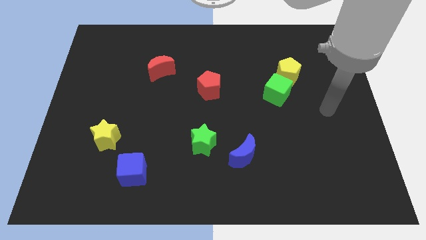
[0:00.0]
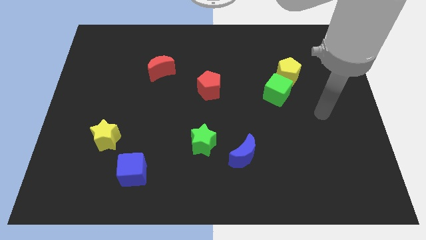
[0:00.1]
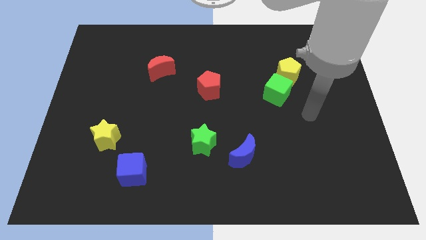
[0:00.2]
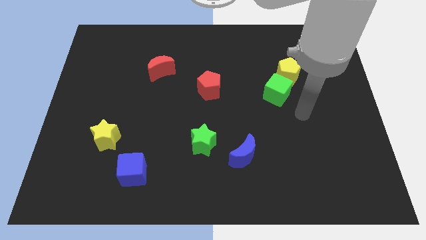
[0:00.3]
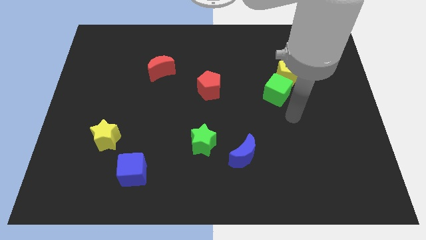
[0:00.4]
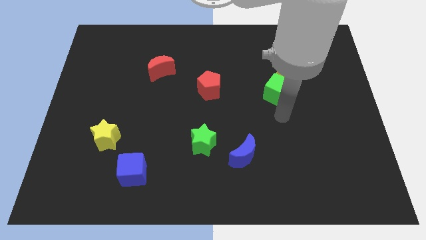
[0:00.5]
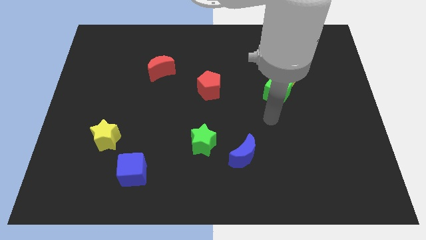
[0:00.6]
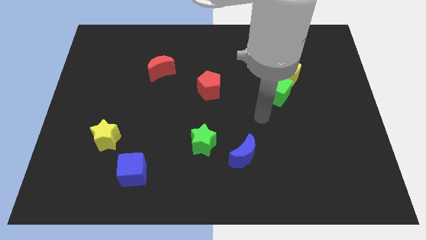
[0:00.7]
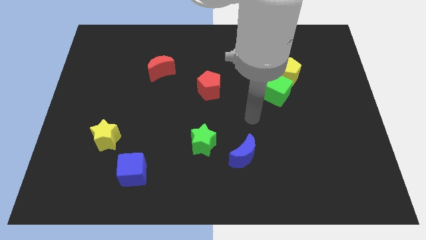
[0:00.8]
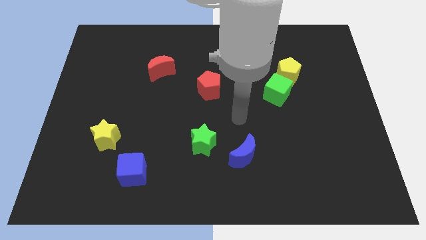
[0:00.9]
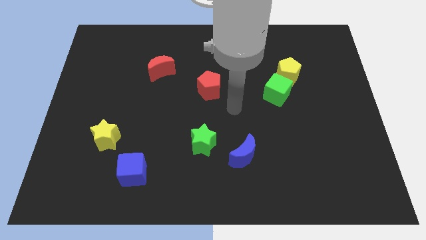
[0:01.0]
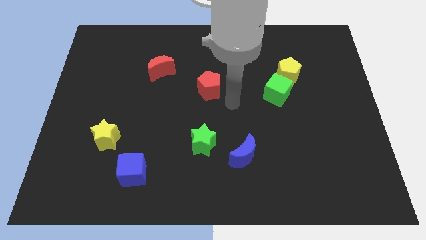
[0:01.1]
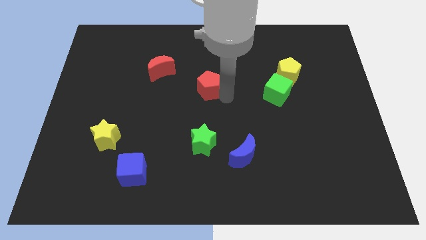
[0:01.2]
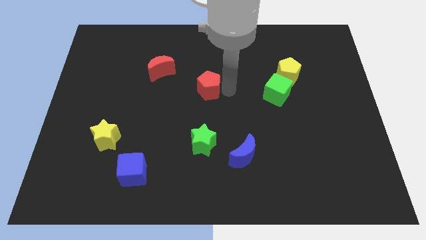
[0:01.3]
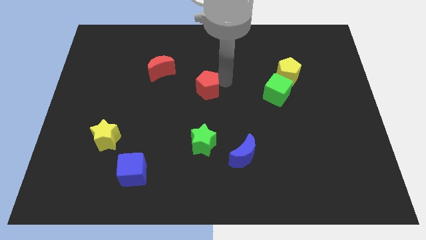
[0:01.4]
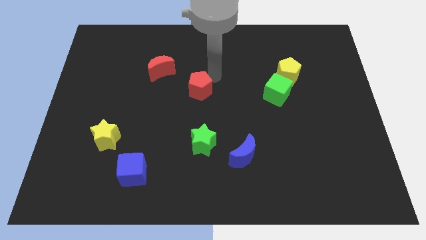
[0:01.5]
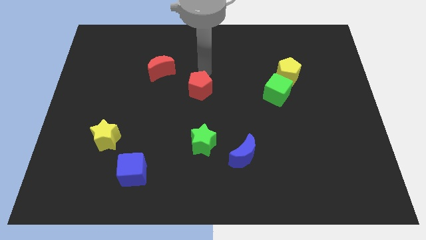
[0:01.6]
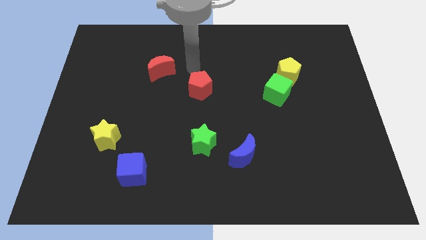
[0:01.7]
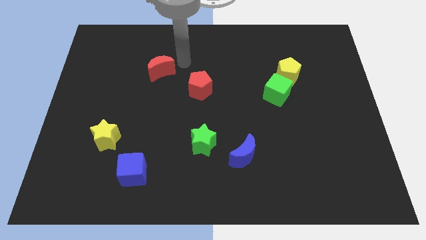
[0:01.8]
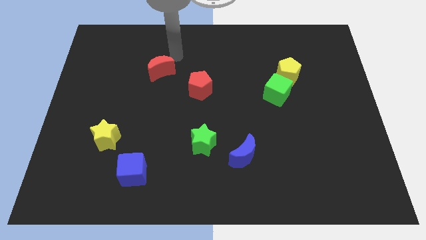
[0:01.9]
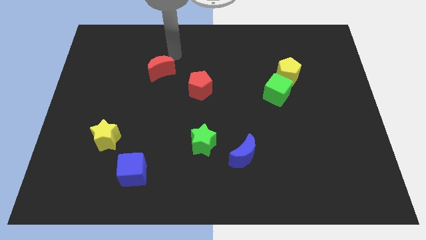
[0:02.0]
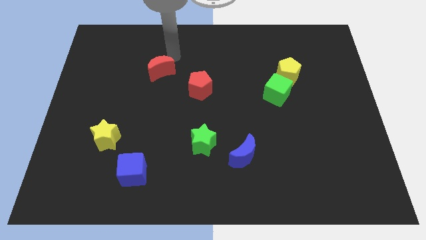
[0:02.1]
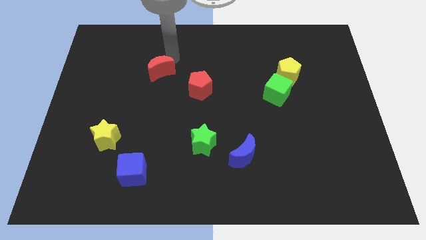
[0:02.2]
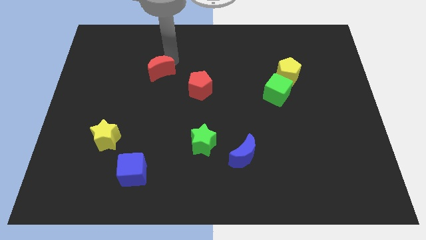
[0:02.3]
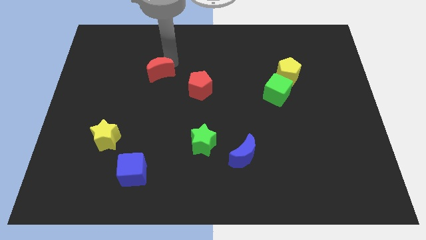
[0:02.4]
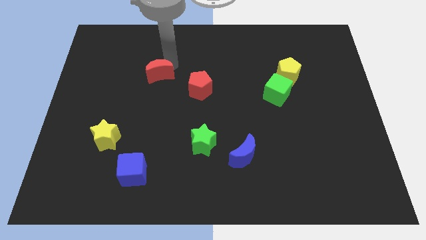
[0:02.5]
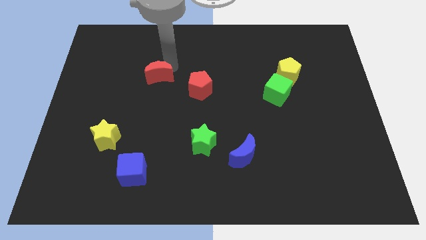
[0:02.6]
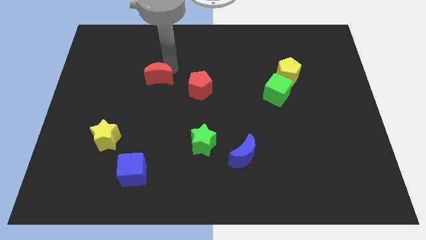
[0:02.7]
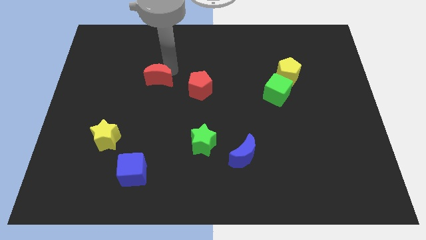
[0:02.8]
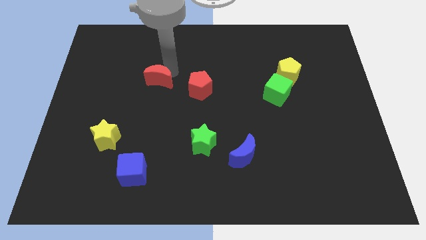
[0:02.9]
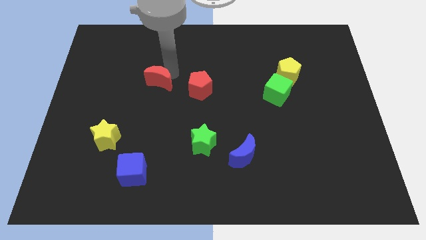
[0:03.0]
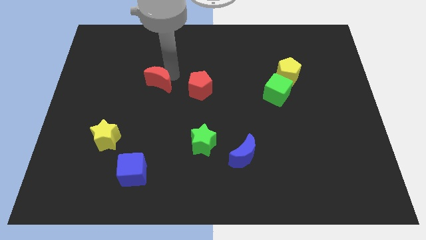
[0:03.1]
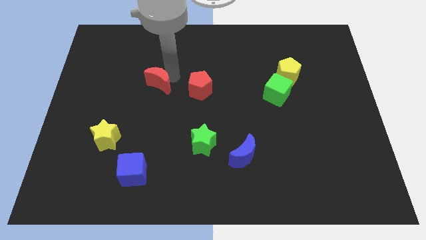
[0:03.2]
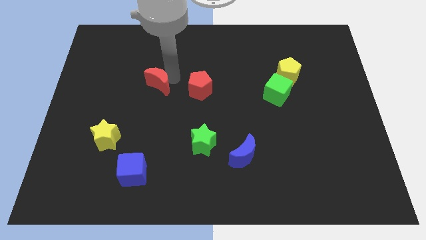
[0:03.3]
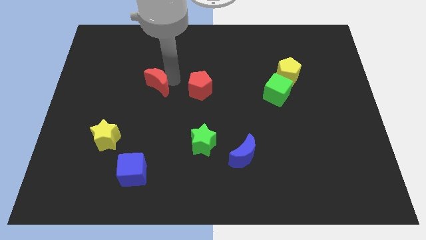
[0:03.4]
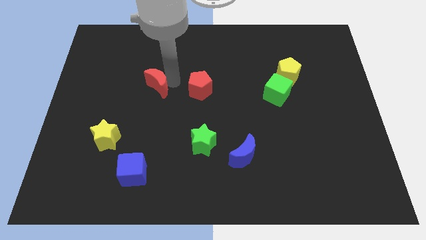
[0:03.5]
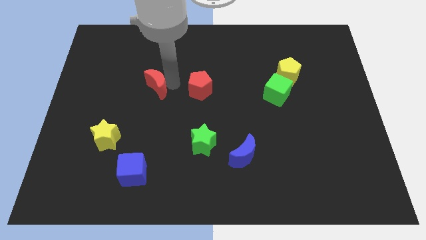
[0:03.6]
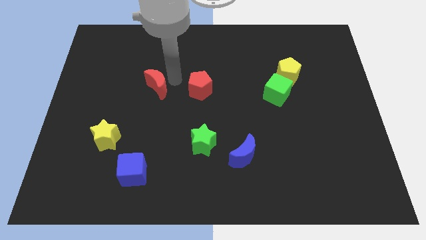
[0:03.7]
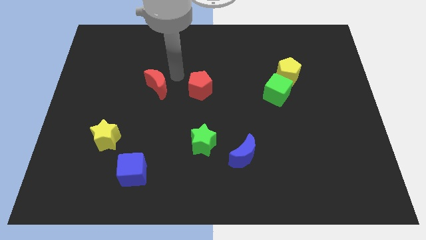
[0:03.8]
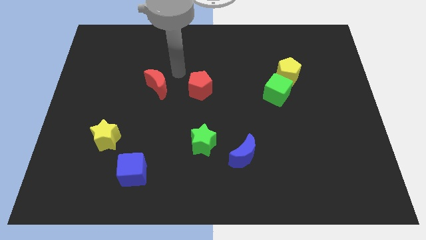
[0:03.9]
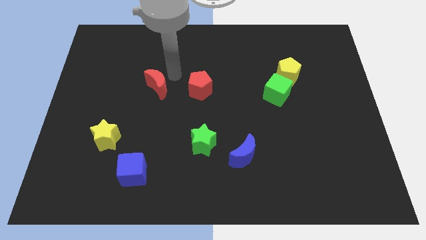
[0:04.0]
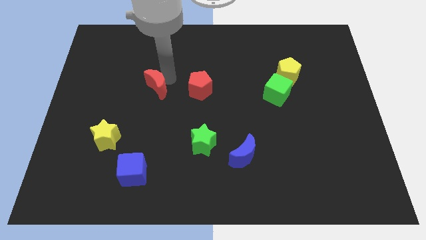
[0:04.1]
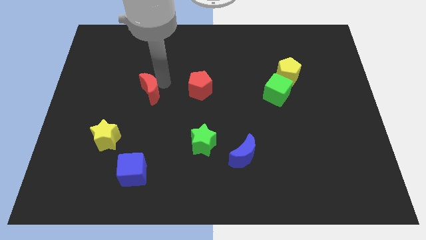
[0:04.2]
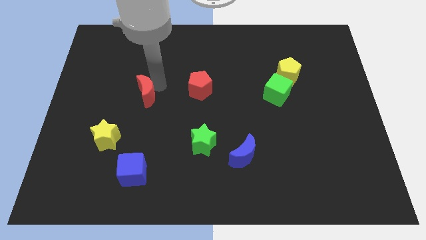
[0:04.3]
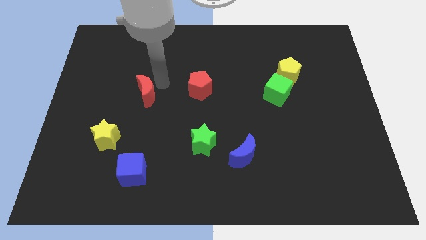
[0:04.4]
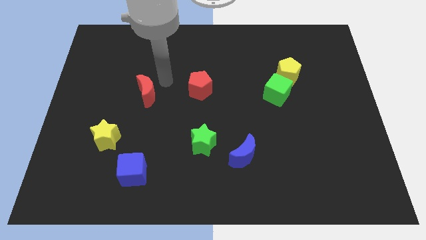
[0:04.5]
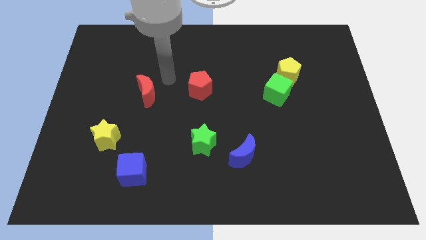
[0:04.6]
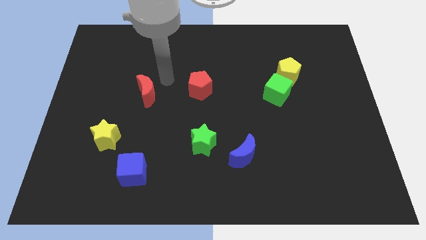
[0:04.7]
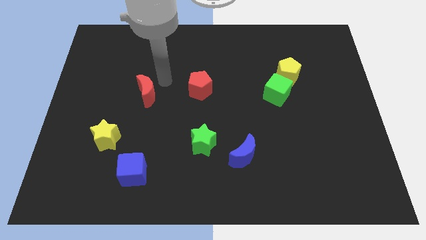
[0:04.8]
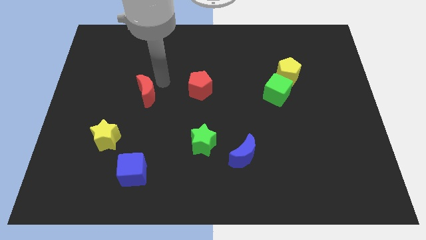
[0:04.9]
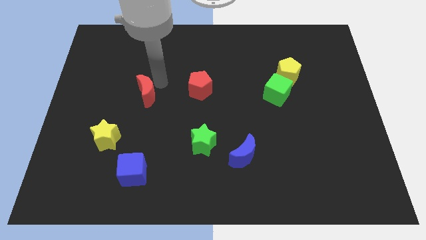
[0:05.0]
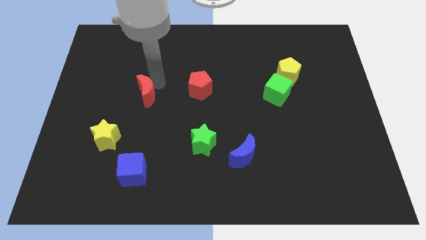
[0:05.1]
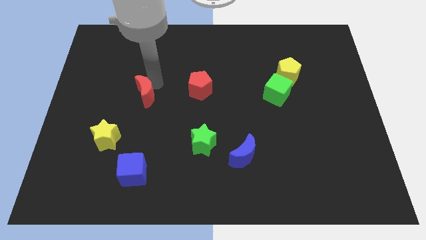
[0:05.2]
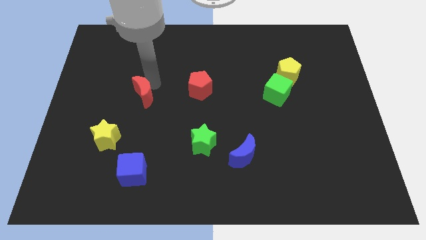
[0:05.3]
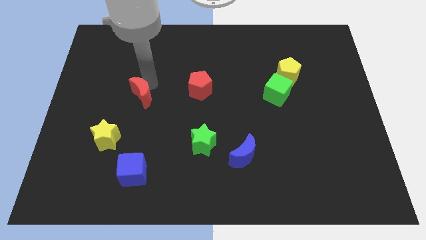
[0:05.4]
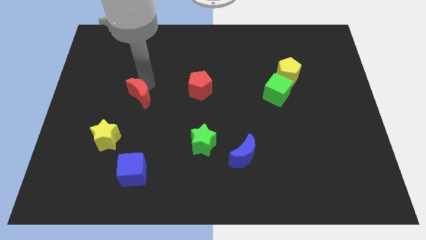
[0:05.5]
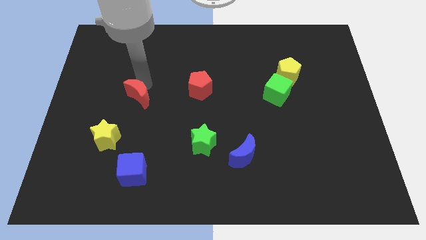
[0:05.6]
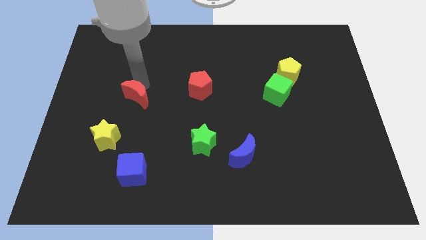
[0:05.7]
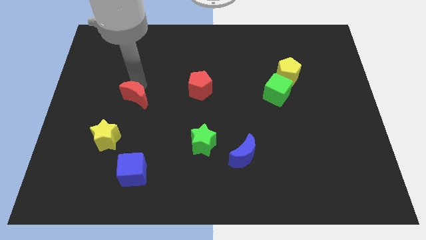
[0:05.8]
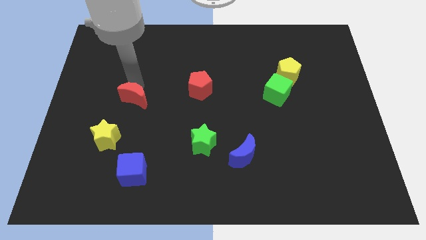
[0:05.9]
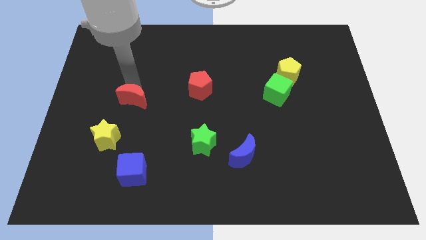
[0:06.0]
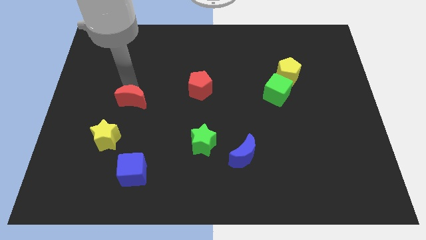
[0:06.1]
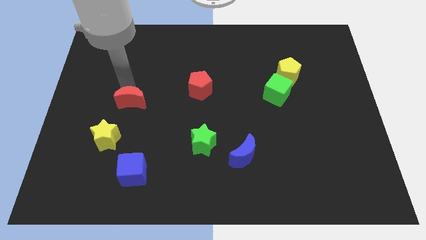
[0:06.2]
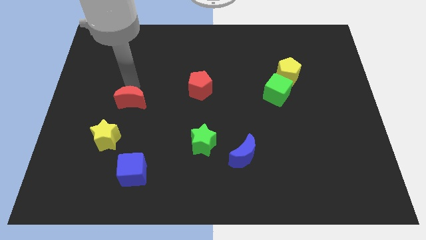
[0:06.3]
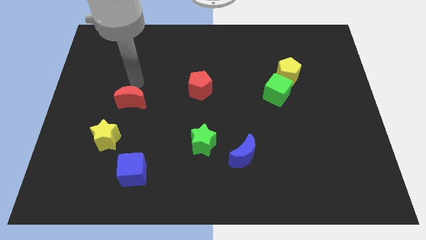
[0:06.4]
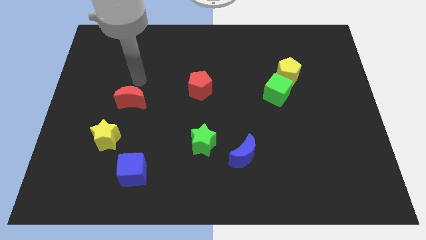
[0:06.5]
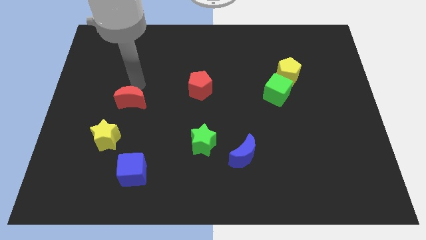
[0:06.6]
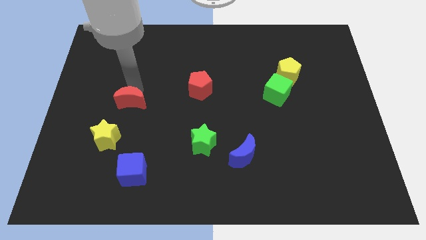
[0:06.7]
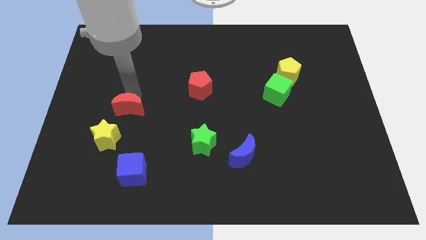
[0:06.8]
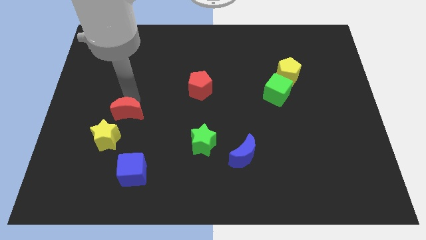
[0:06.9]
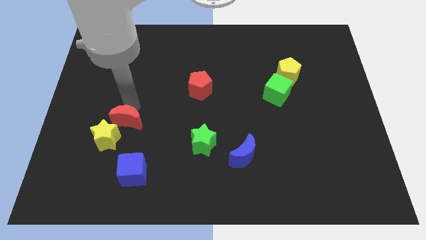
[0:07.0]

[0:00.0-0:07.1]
push the red moon towards the yellow star
